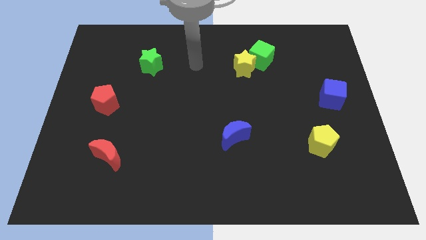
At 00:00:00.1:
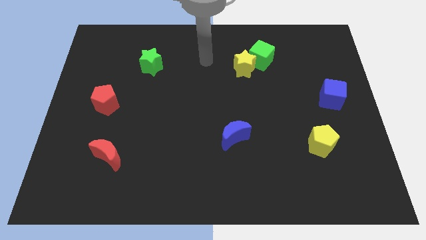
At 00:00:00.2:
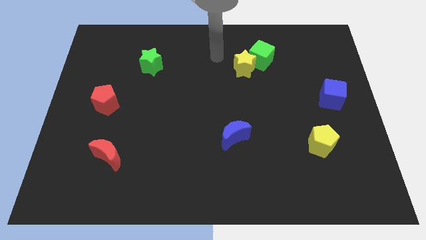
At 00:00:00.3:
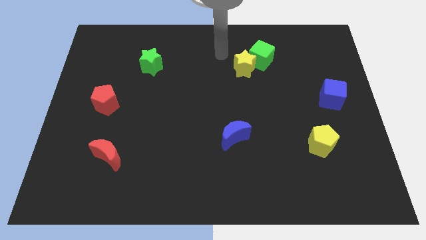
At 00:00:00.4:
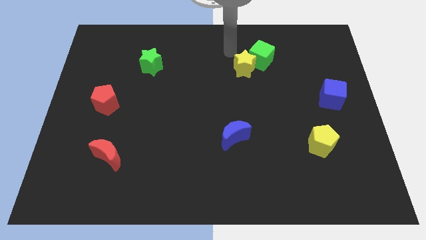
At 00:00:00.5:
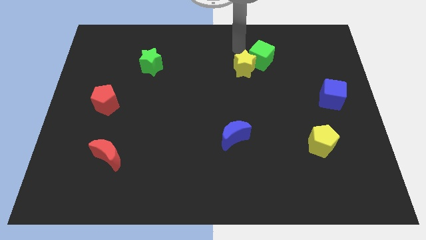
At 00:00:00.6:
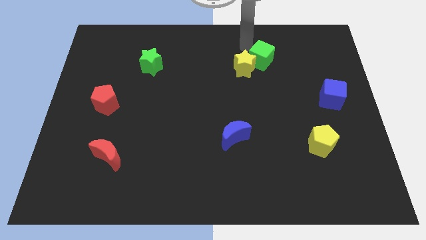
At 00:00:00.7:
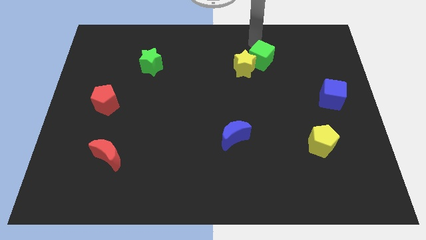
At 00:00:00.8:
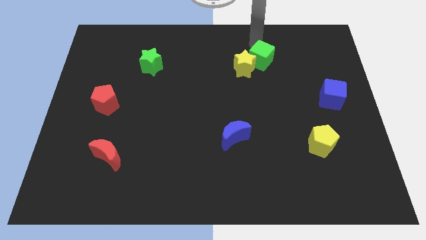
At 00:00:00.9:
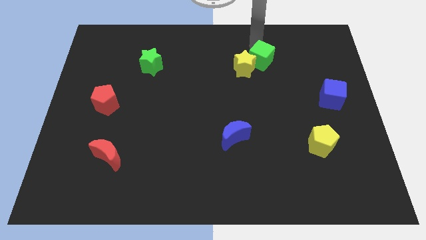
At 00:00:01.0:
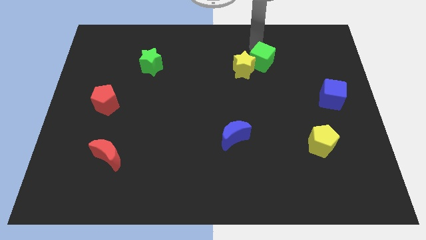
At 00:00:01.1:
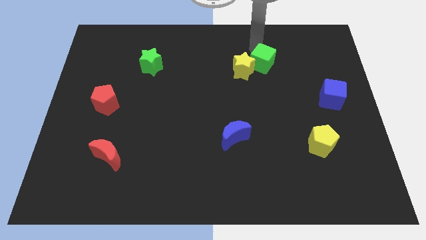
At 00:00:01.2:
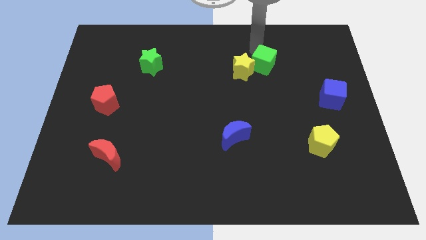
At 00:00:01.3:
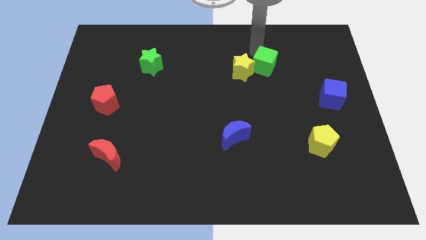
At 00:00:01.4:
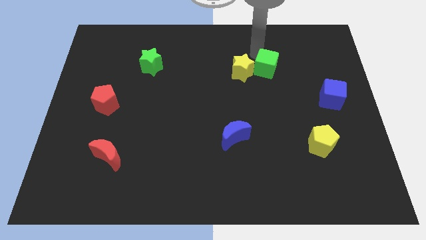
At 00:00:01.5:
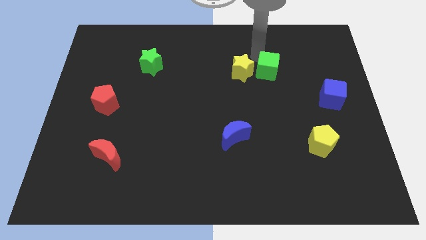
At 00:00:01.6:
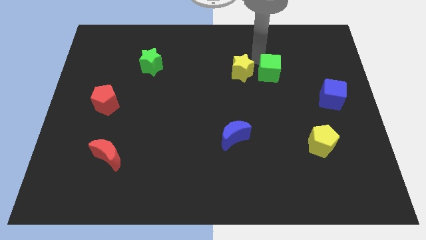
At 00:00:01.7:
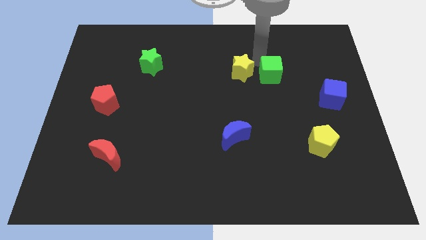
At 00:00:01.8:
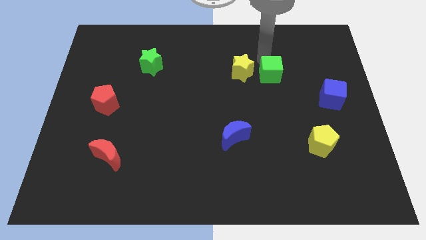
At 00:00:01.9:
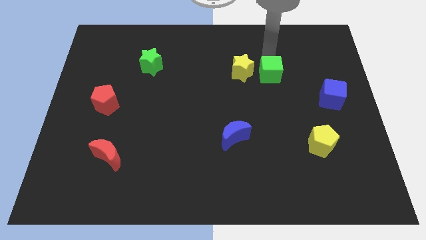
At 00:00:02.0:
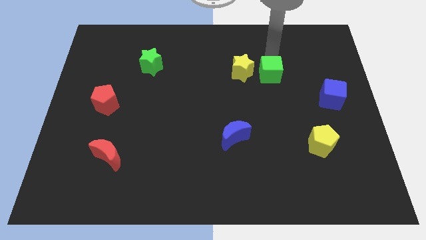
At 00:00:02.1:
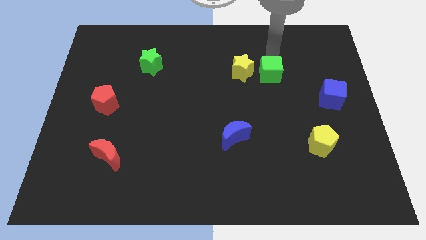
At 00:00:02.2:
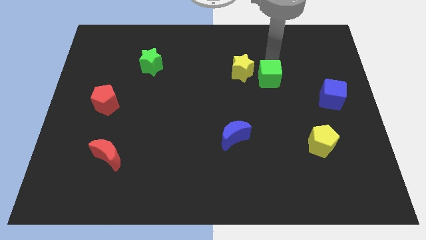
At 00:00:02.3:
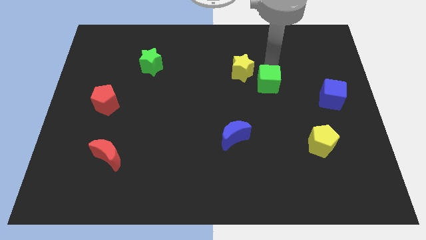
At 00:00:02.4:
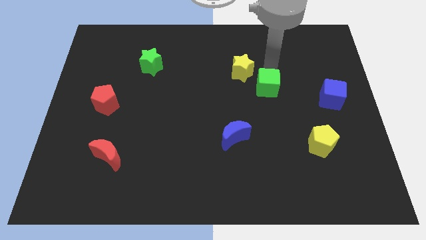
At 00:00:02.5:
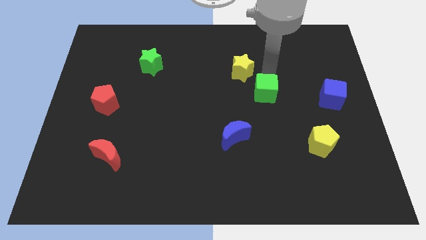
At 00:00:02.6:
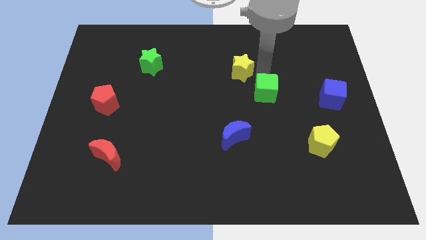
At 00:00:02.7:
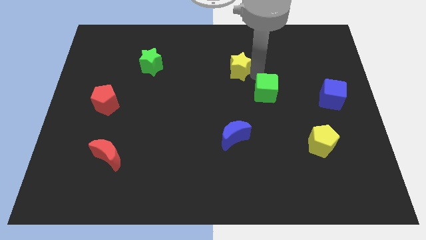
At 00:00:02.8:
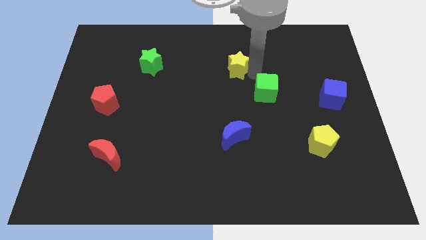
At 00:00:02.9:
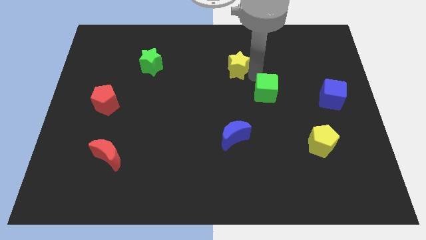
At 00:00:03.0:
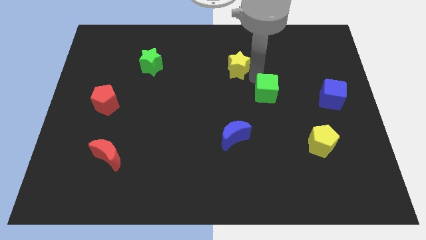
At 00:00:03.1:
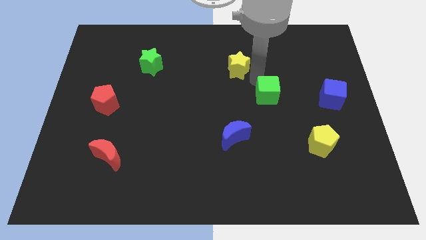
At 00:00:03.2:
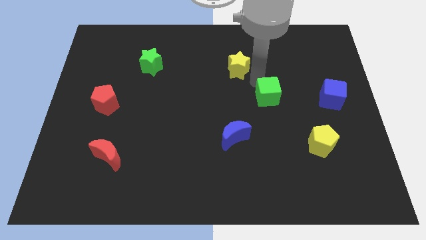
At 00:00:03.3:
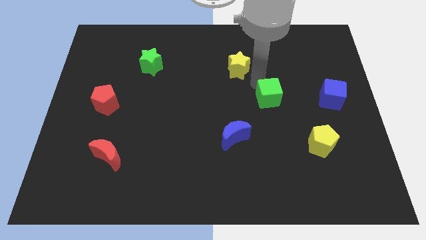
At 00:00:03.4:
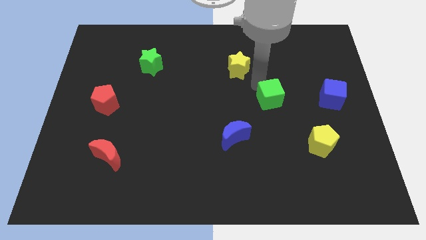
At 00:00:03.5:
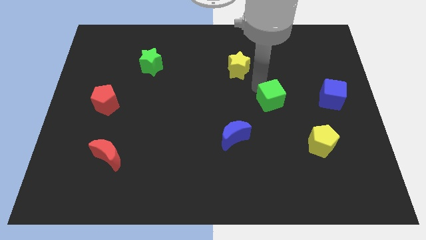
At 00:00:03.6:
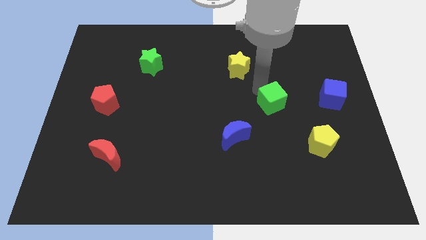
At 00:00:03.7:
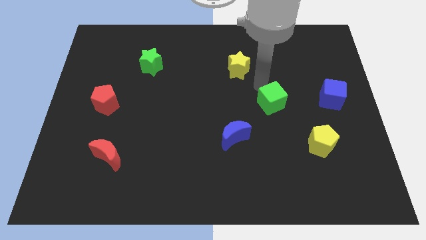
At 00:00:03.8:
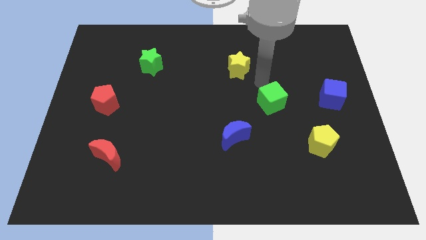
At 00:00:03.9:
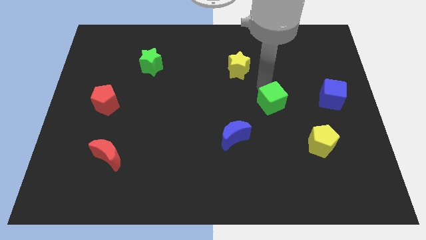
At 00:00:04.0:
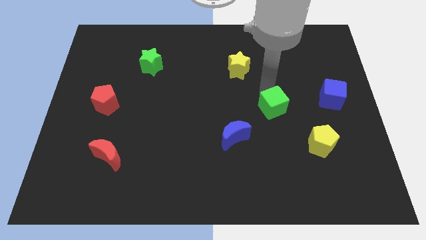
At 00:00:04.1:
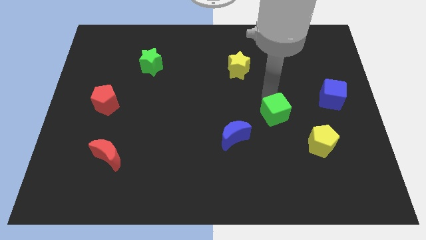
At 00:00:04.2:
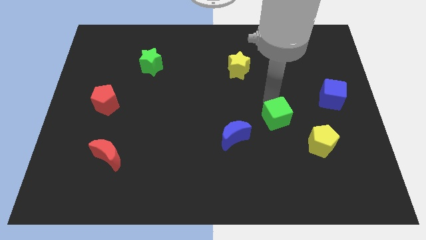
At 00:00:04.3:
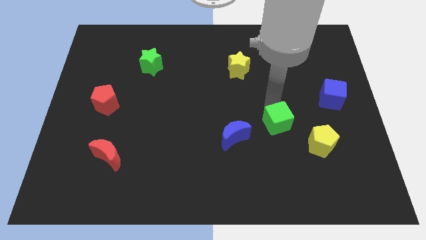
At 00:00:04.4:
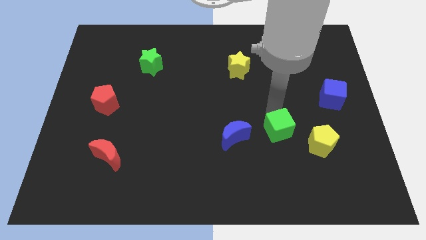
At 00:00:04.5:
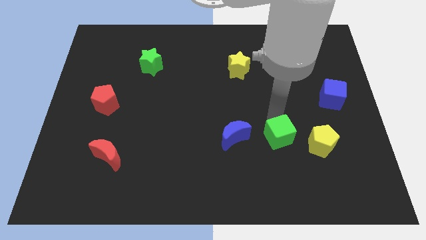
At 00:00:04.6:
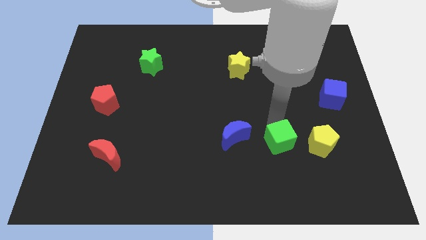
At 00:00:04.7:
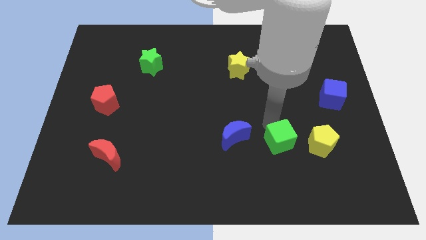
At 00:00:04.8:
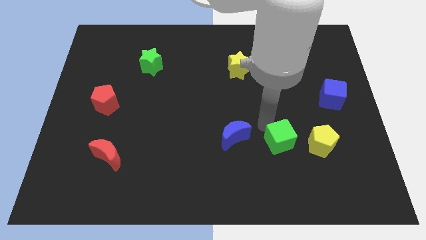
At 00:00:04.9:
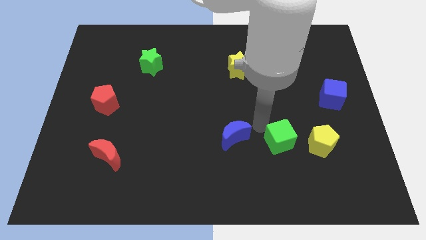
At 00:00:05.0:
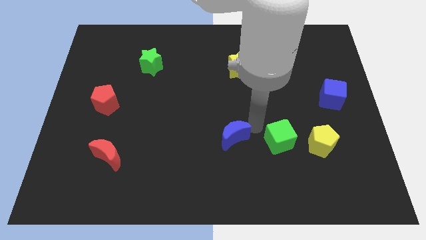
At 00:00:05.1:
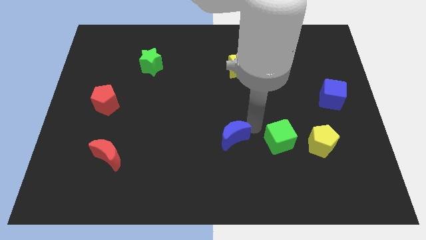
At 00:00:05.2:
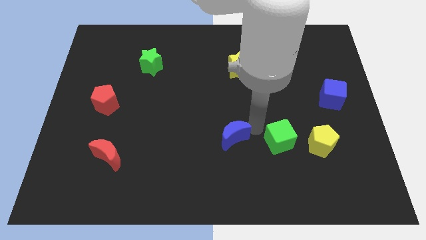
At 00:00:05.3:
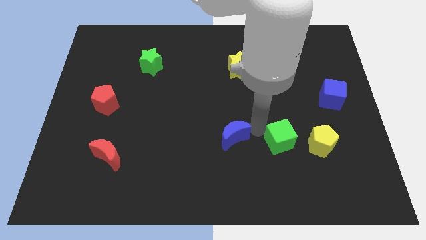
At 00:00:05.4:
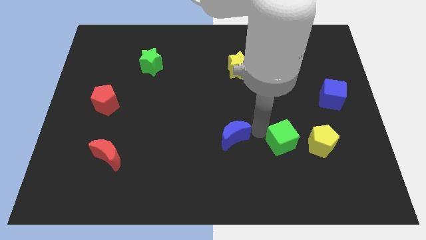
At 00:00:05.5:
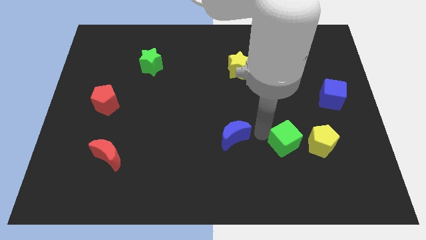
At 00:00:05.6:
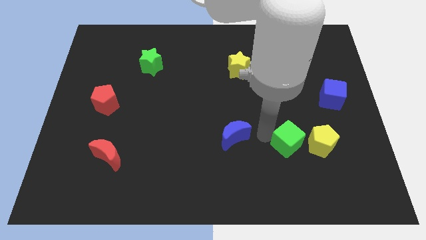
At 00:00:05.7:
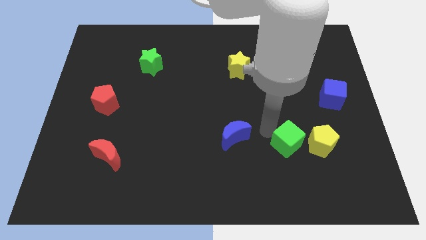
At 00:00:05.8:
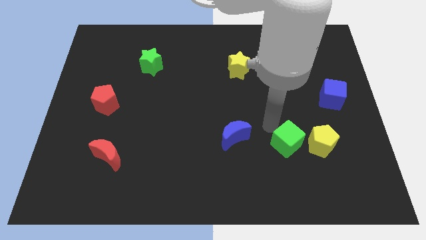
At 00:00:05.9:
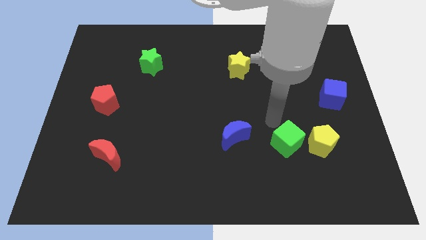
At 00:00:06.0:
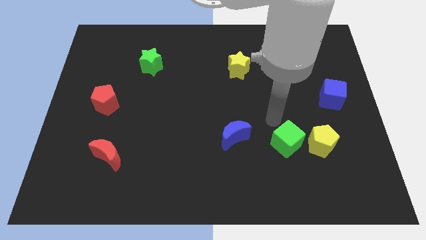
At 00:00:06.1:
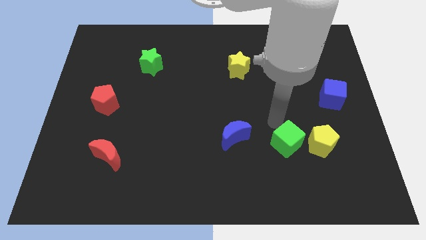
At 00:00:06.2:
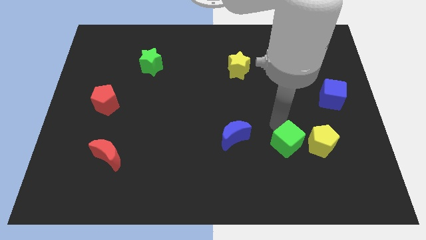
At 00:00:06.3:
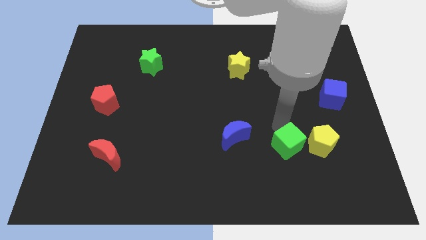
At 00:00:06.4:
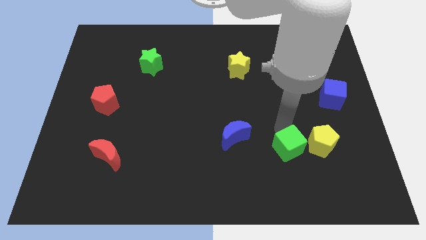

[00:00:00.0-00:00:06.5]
move the green cube to the bottom left of the yellow pentagon

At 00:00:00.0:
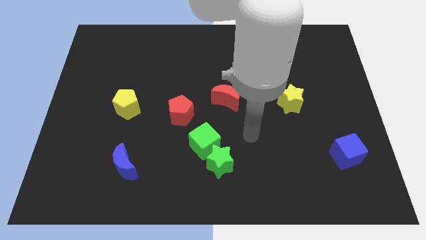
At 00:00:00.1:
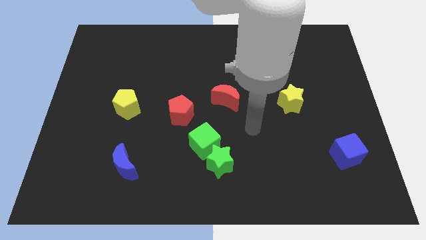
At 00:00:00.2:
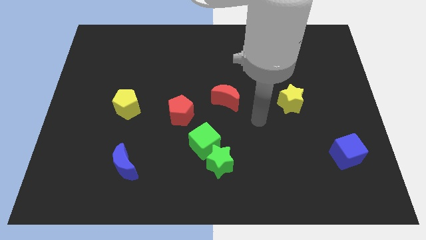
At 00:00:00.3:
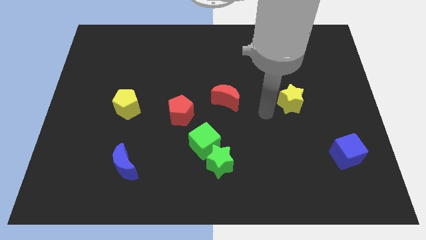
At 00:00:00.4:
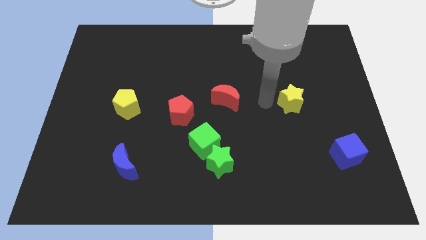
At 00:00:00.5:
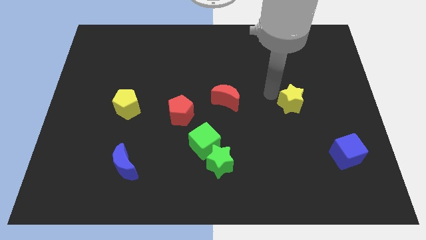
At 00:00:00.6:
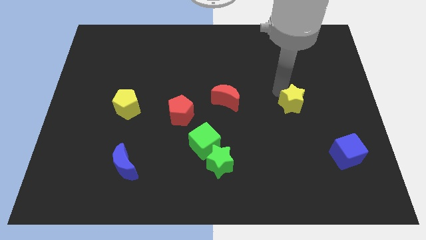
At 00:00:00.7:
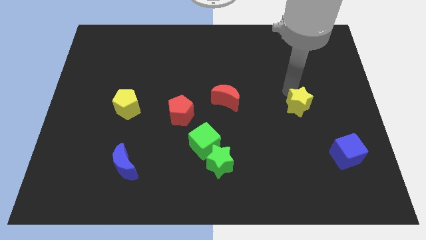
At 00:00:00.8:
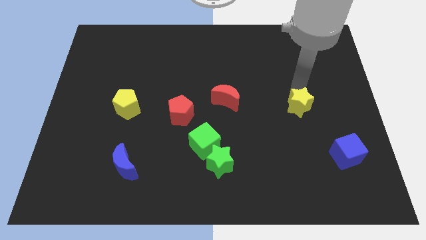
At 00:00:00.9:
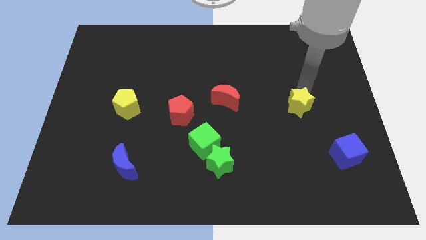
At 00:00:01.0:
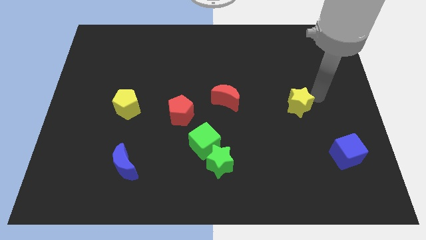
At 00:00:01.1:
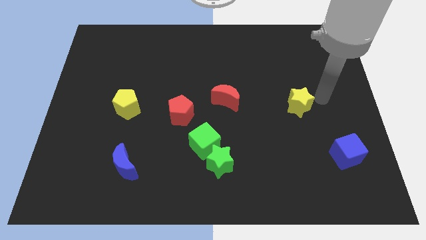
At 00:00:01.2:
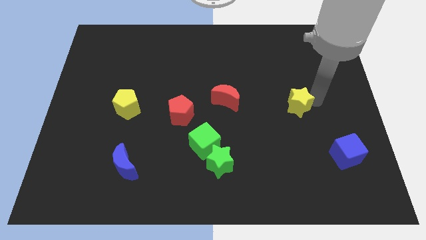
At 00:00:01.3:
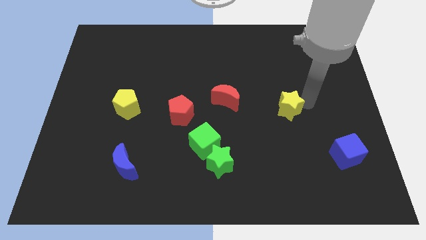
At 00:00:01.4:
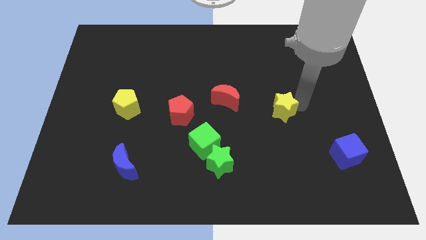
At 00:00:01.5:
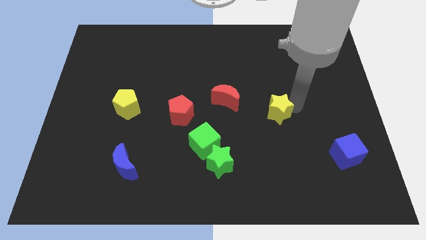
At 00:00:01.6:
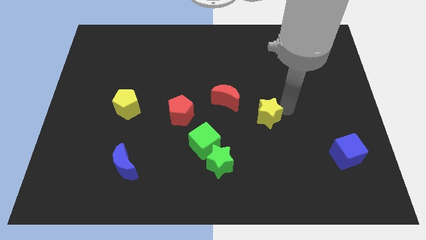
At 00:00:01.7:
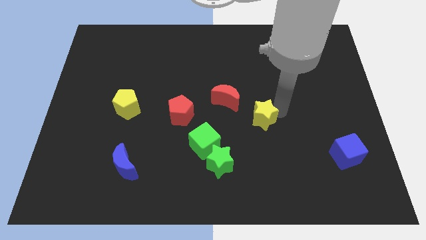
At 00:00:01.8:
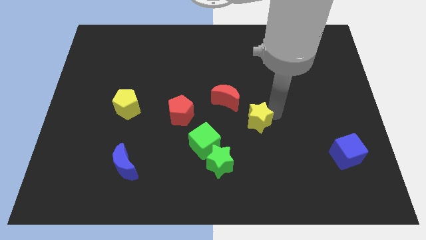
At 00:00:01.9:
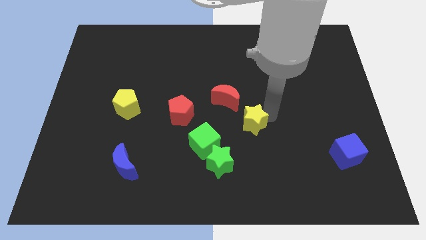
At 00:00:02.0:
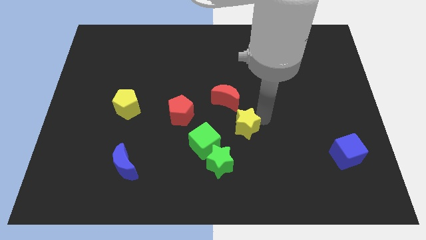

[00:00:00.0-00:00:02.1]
push the yellow star to the bottom side of the red moon
